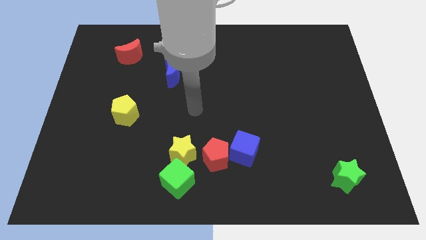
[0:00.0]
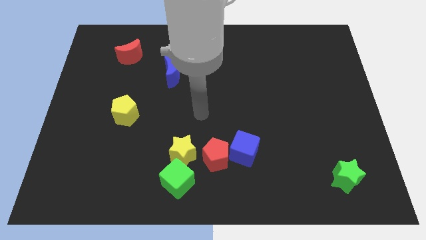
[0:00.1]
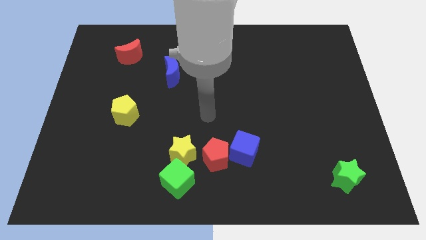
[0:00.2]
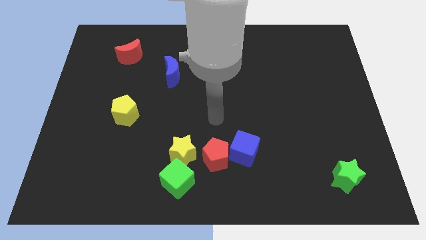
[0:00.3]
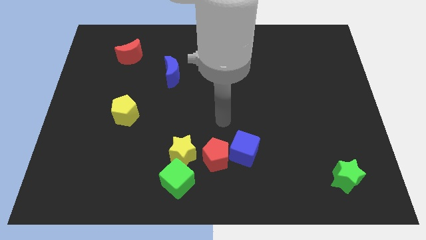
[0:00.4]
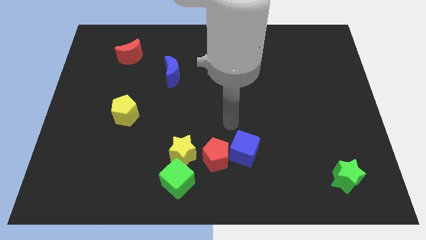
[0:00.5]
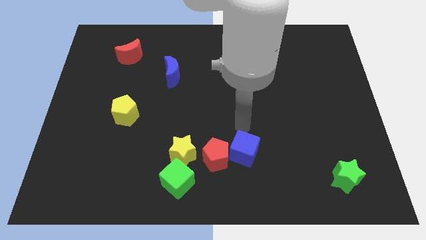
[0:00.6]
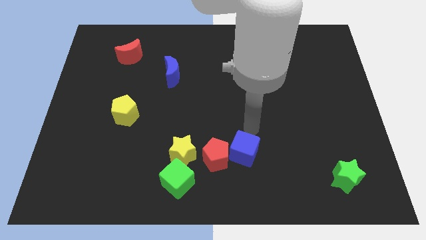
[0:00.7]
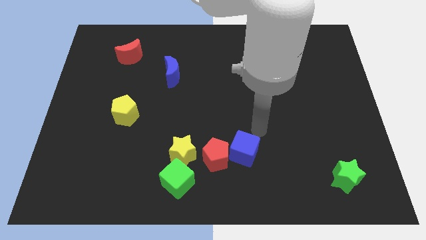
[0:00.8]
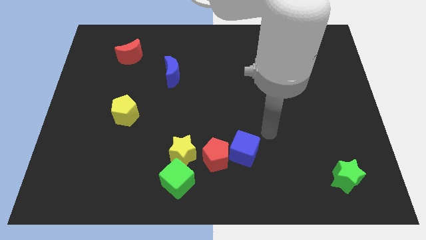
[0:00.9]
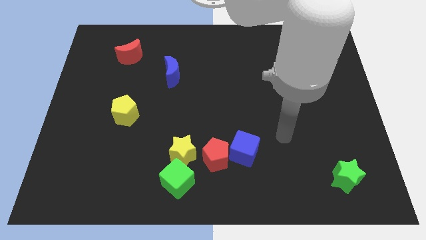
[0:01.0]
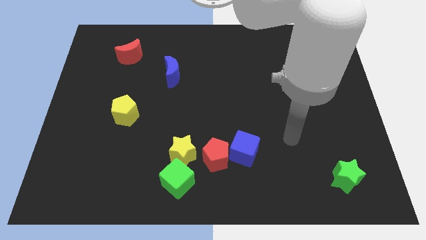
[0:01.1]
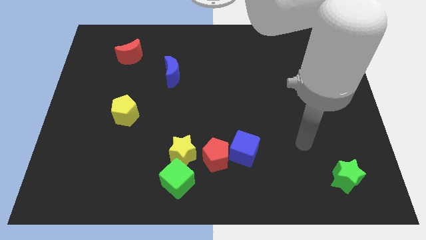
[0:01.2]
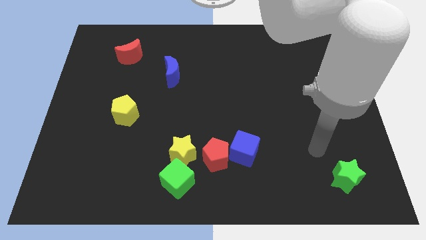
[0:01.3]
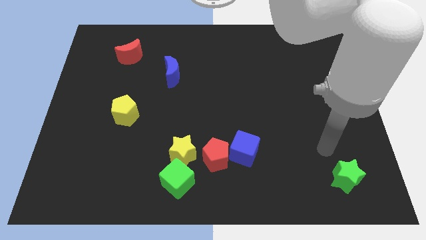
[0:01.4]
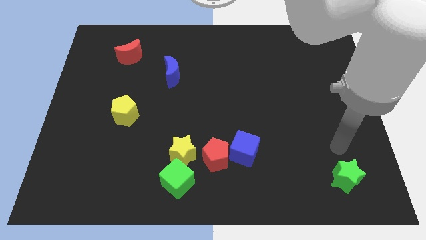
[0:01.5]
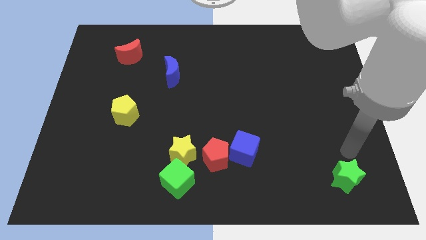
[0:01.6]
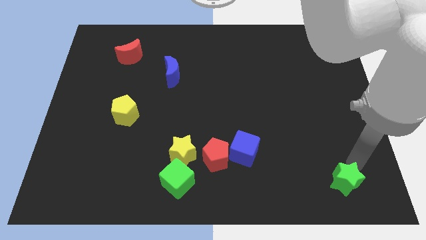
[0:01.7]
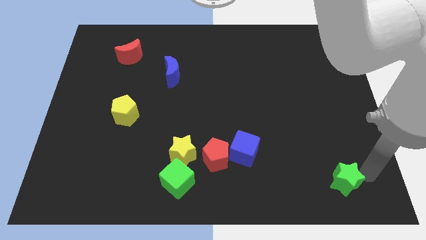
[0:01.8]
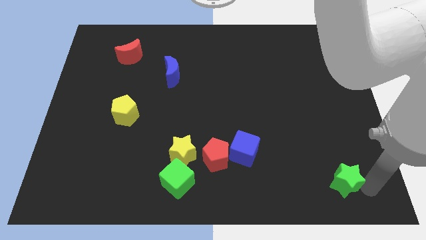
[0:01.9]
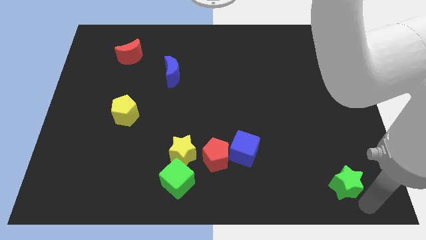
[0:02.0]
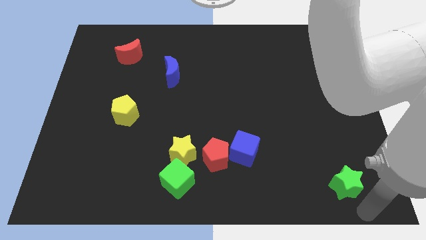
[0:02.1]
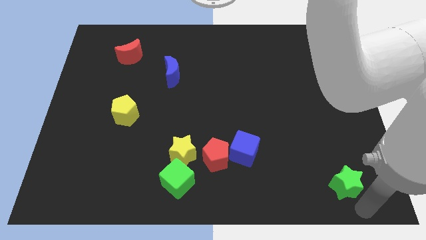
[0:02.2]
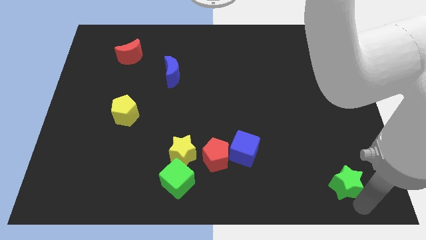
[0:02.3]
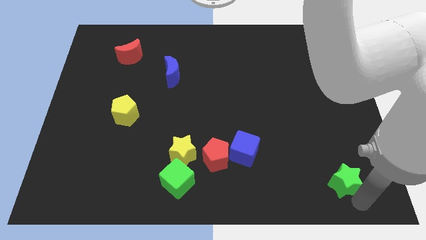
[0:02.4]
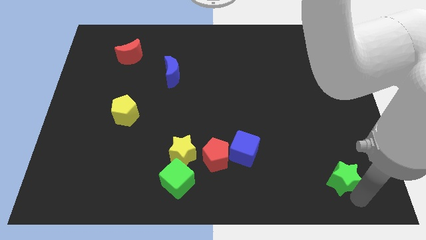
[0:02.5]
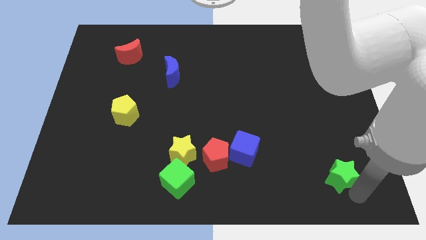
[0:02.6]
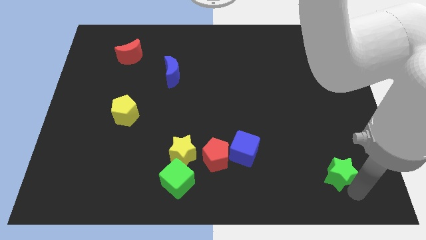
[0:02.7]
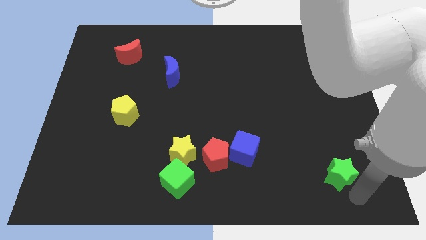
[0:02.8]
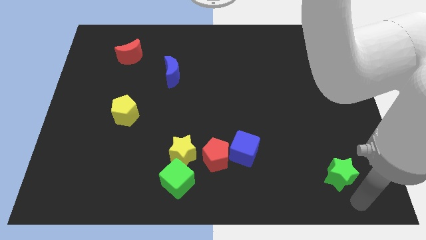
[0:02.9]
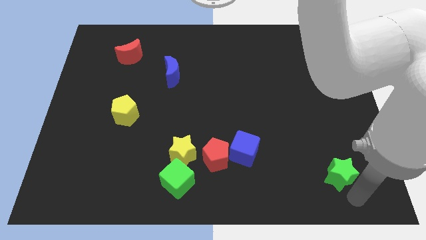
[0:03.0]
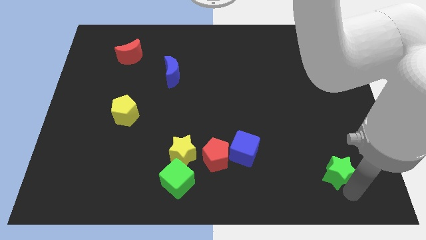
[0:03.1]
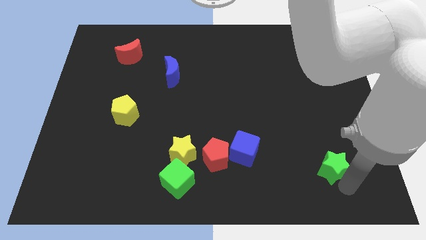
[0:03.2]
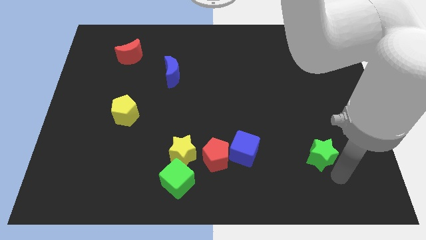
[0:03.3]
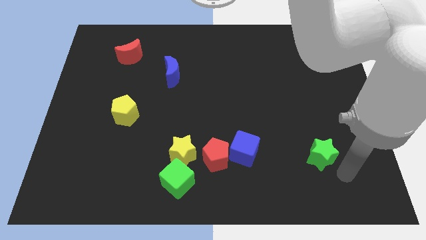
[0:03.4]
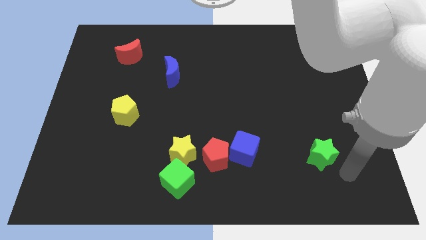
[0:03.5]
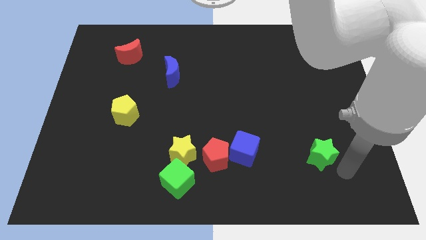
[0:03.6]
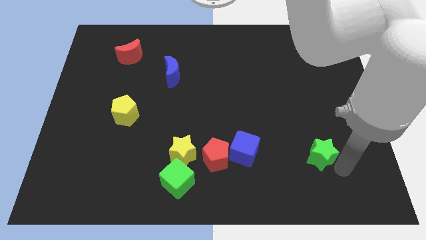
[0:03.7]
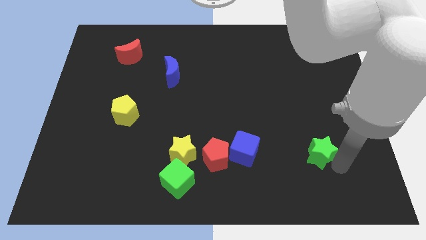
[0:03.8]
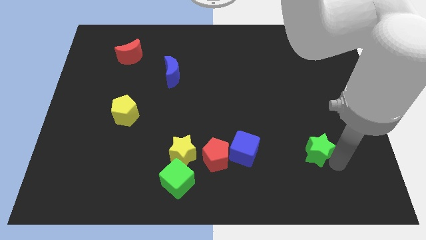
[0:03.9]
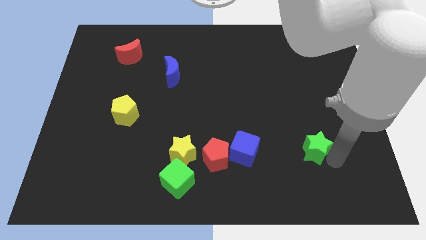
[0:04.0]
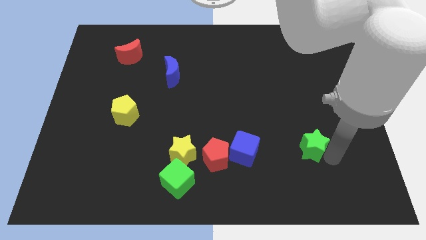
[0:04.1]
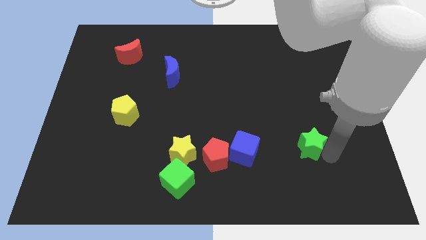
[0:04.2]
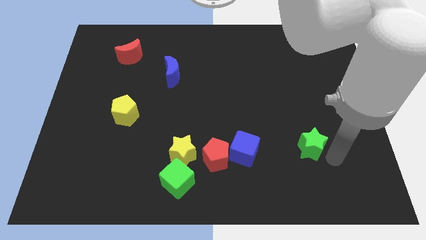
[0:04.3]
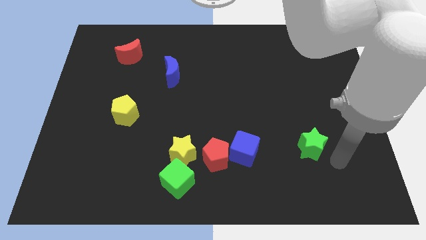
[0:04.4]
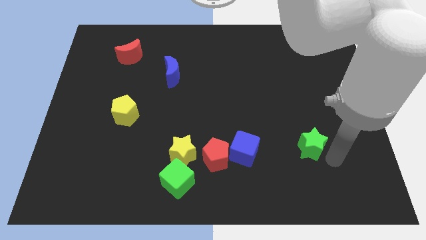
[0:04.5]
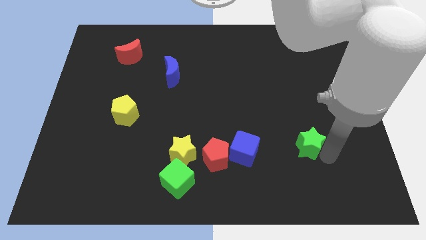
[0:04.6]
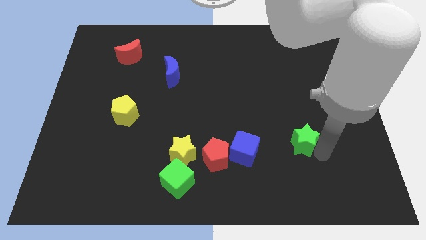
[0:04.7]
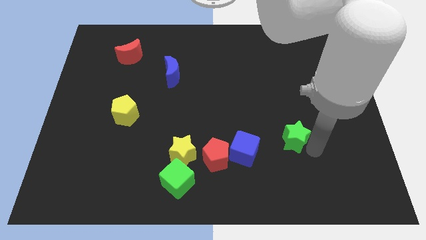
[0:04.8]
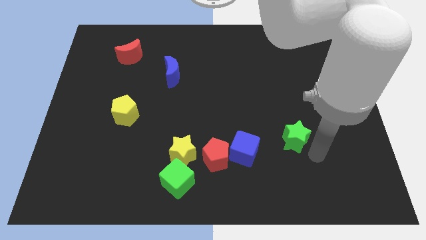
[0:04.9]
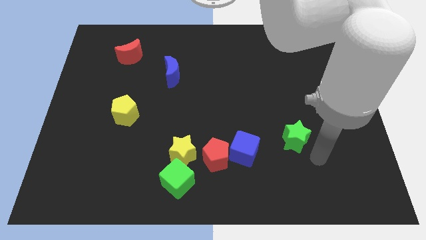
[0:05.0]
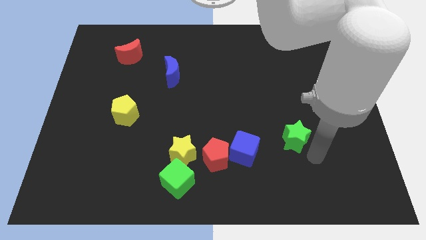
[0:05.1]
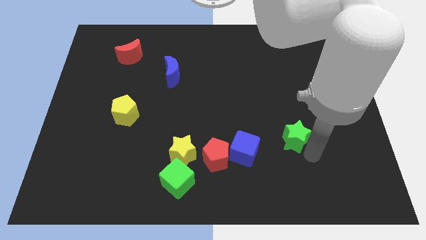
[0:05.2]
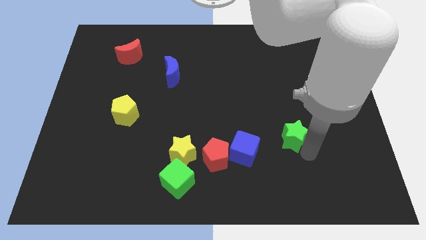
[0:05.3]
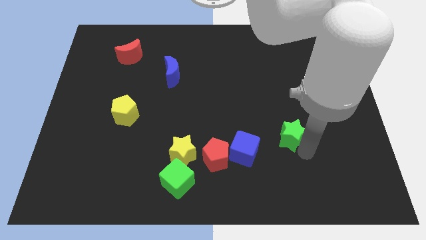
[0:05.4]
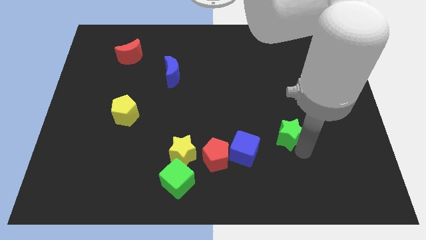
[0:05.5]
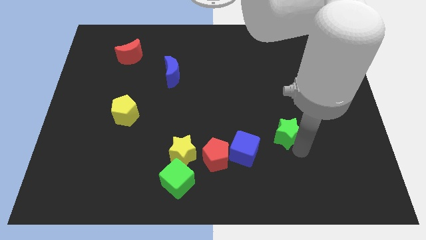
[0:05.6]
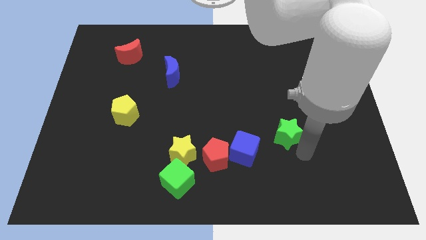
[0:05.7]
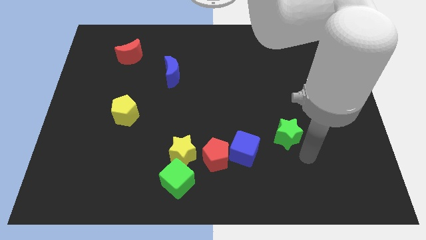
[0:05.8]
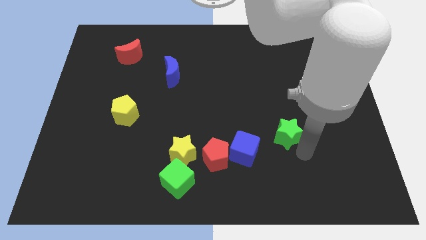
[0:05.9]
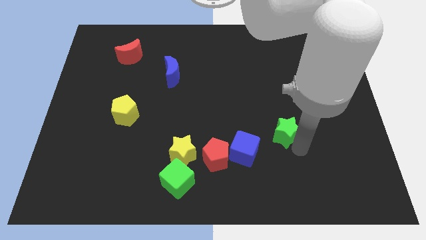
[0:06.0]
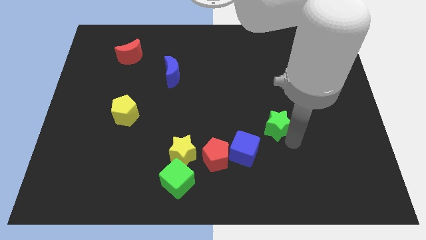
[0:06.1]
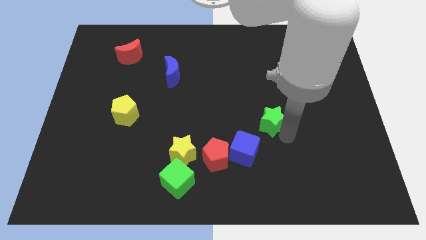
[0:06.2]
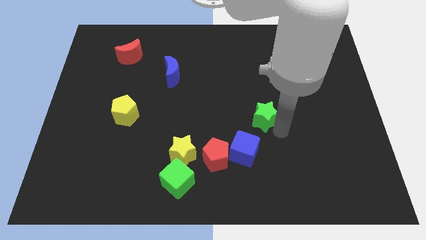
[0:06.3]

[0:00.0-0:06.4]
push the green star upwards and then left

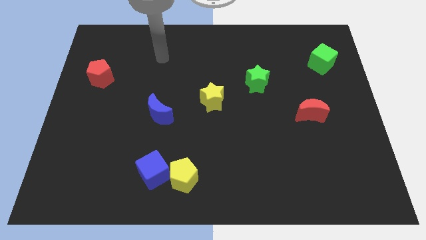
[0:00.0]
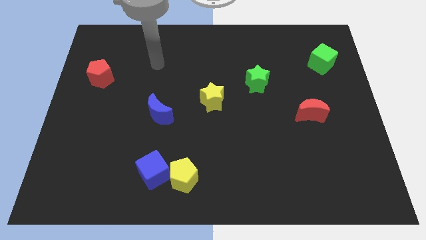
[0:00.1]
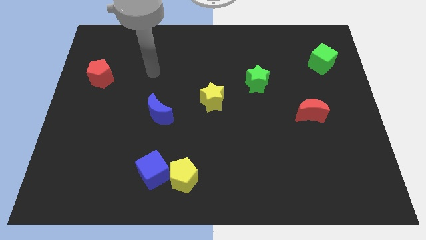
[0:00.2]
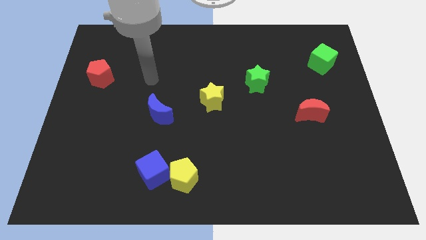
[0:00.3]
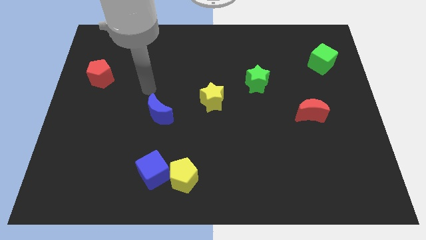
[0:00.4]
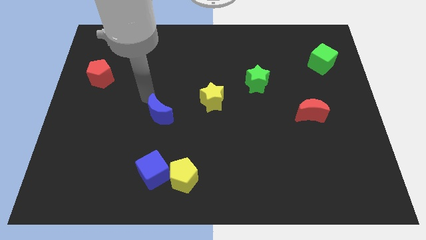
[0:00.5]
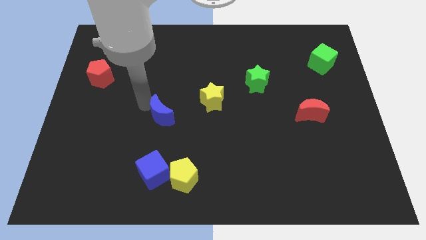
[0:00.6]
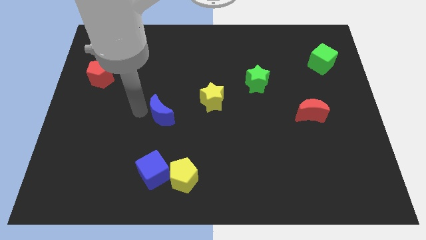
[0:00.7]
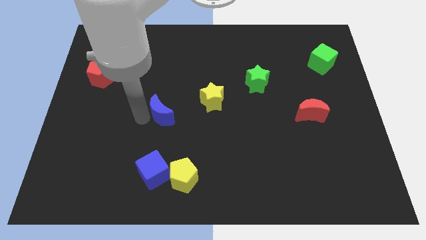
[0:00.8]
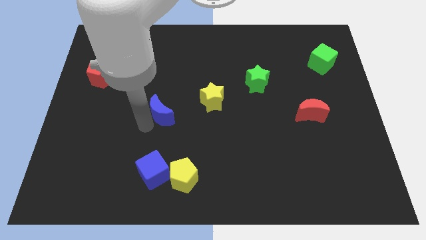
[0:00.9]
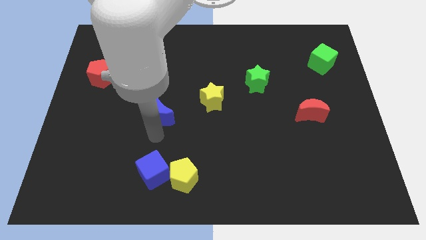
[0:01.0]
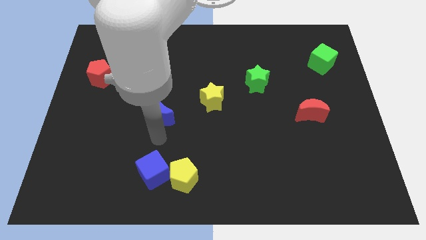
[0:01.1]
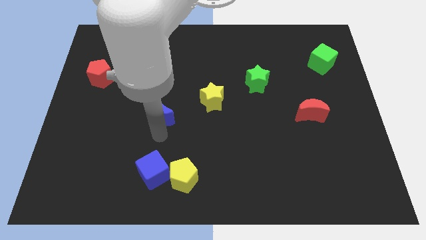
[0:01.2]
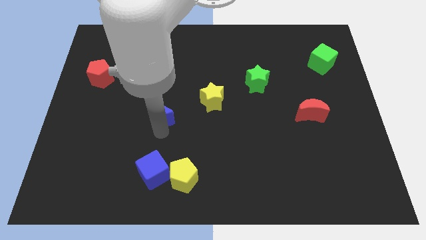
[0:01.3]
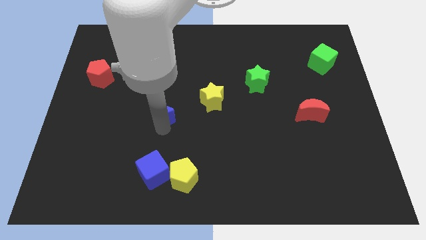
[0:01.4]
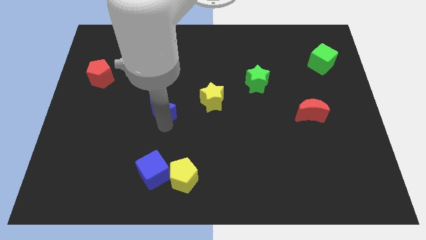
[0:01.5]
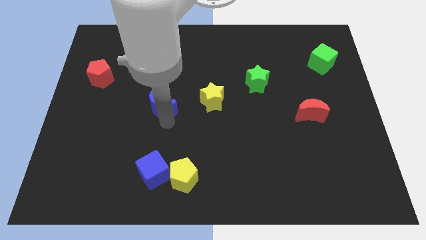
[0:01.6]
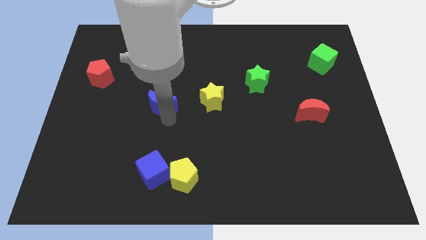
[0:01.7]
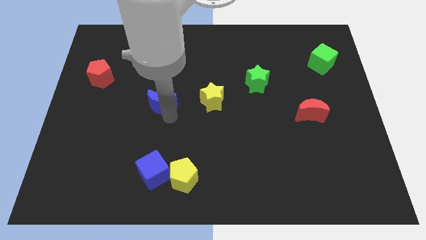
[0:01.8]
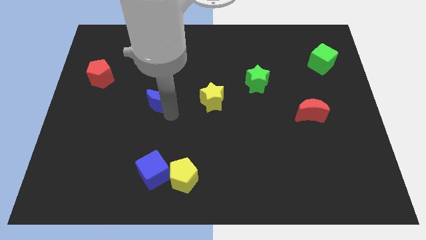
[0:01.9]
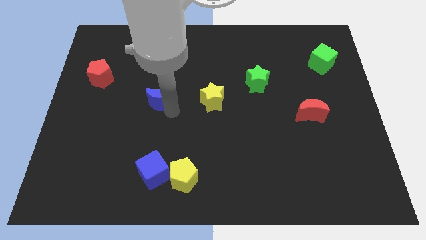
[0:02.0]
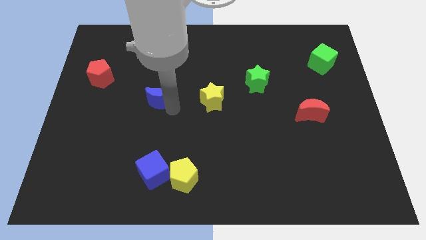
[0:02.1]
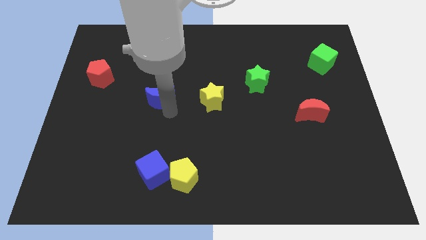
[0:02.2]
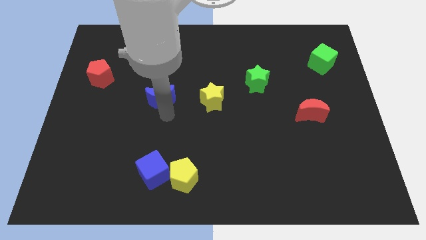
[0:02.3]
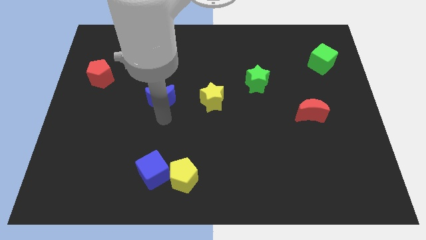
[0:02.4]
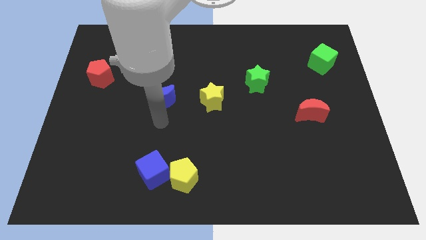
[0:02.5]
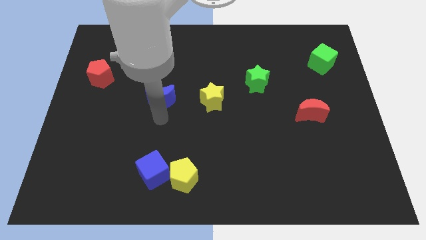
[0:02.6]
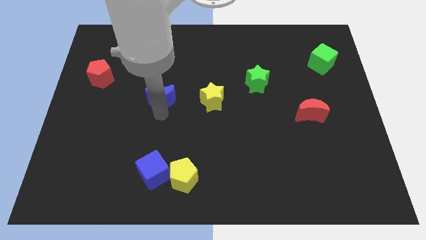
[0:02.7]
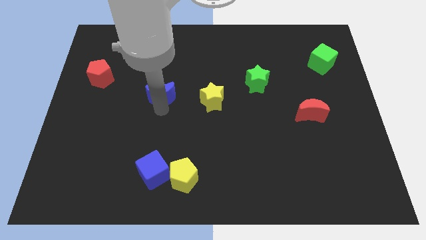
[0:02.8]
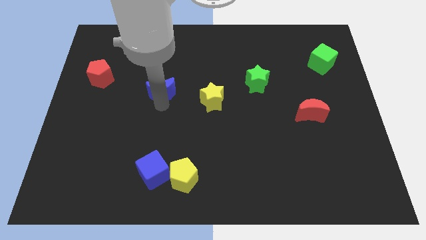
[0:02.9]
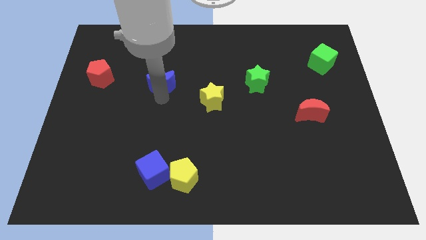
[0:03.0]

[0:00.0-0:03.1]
slide the blue moon up a little
